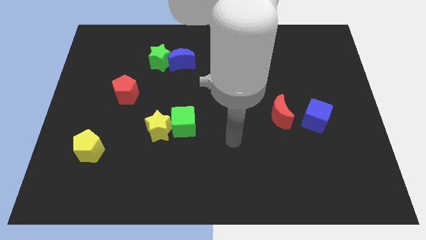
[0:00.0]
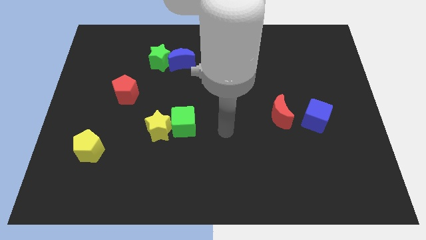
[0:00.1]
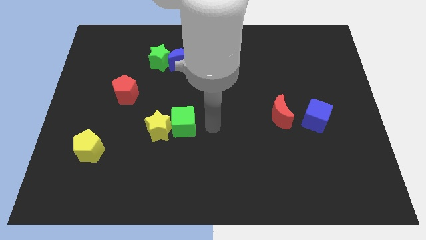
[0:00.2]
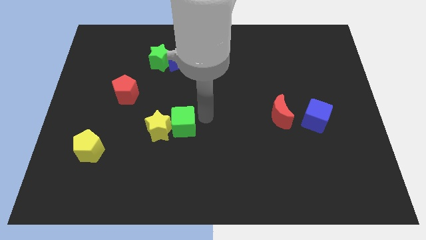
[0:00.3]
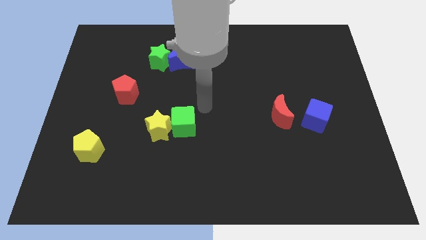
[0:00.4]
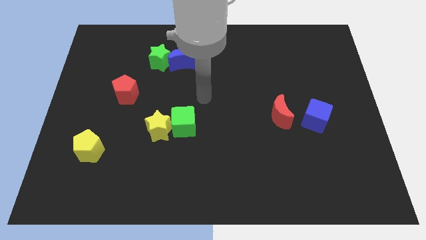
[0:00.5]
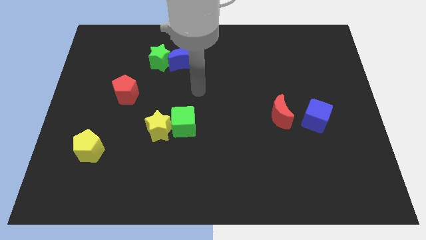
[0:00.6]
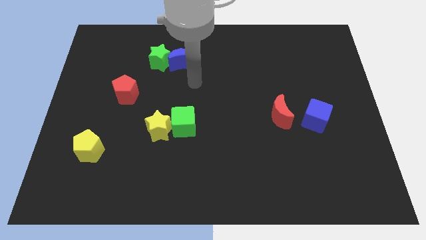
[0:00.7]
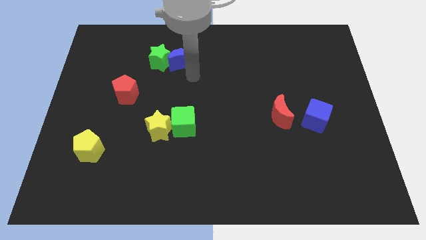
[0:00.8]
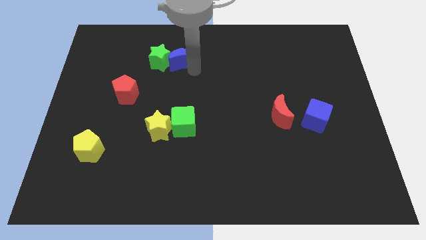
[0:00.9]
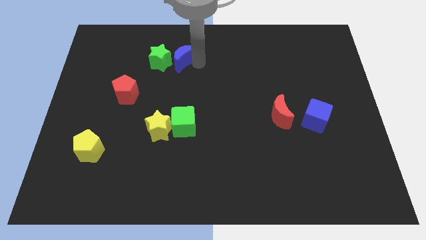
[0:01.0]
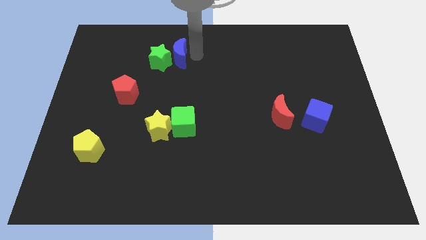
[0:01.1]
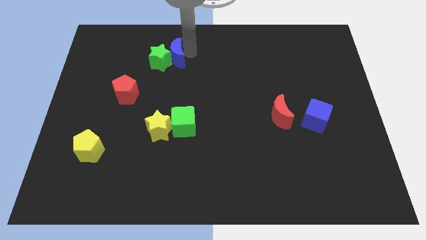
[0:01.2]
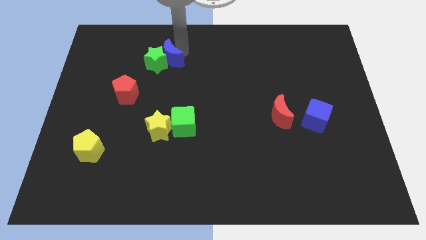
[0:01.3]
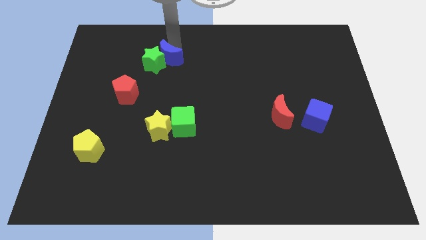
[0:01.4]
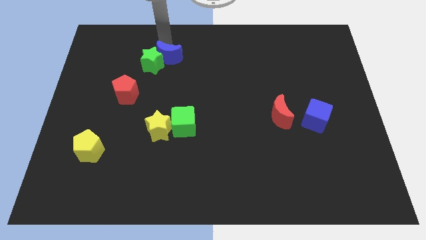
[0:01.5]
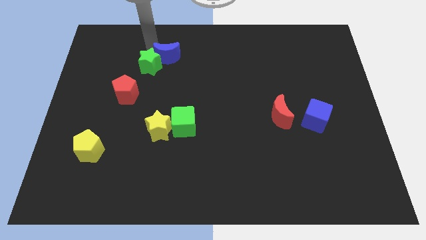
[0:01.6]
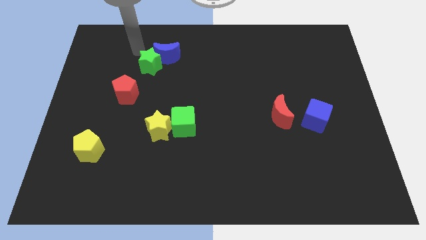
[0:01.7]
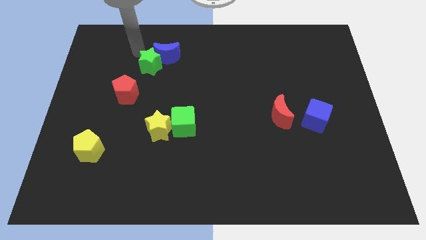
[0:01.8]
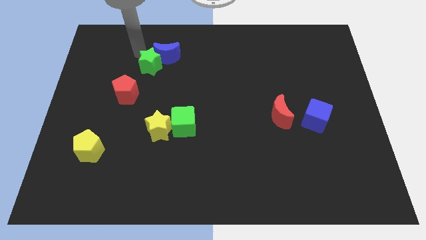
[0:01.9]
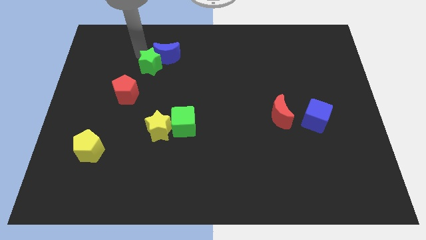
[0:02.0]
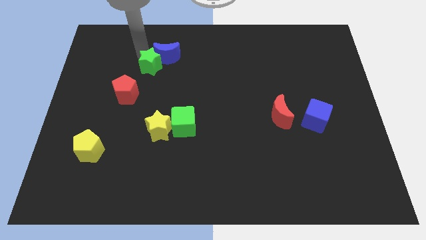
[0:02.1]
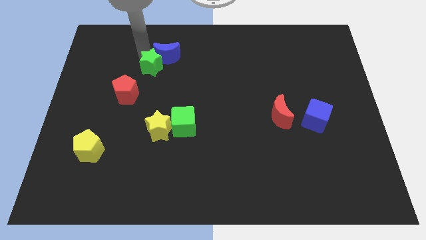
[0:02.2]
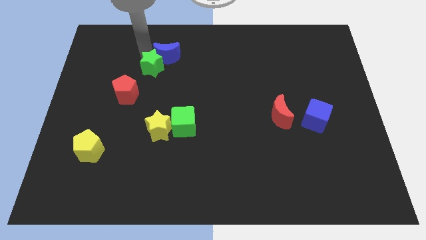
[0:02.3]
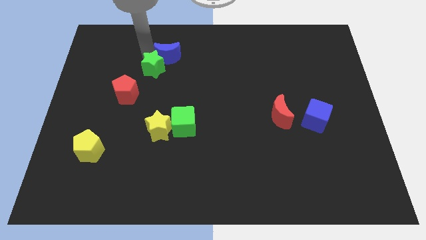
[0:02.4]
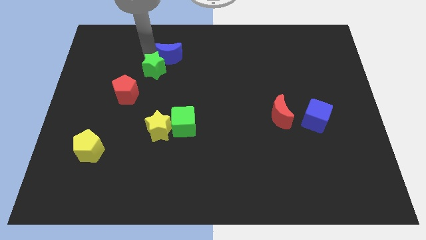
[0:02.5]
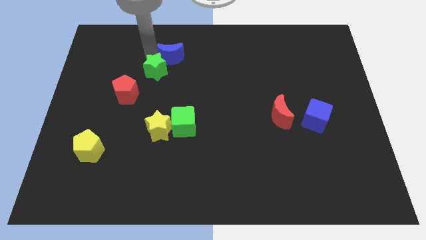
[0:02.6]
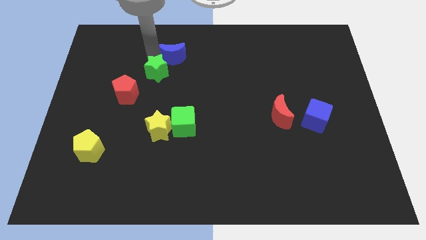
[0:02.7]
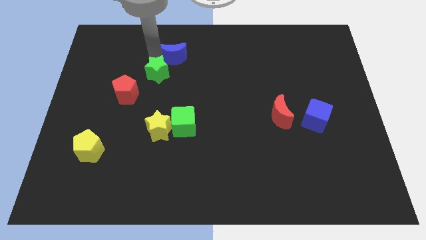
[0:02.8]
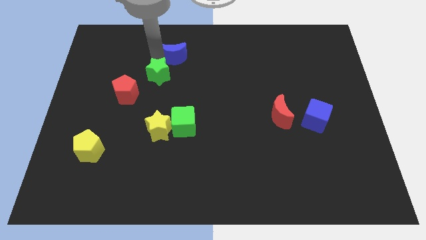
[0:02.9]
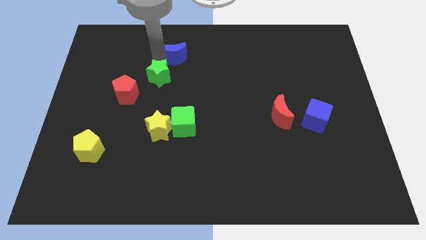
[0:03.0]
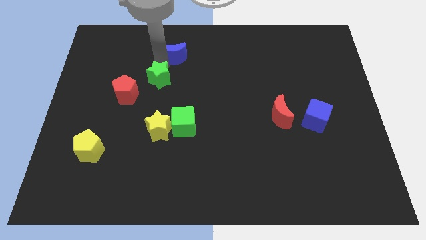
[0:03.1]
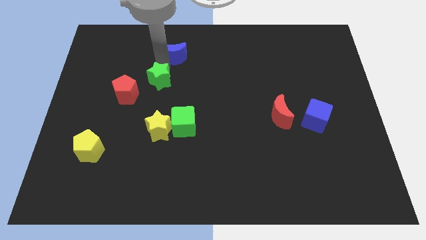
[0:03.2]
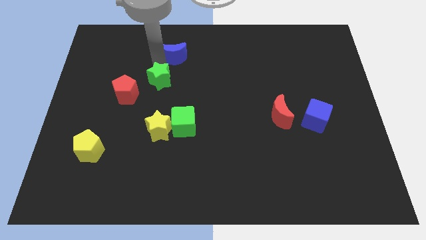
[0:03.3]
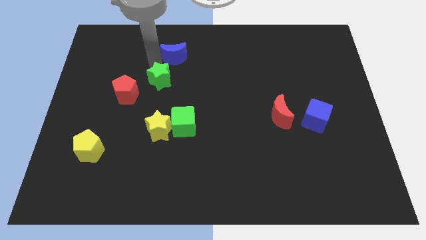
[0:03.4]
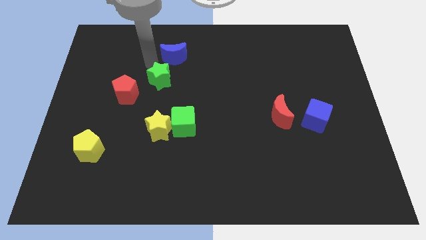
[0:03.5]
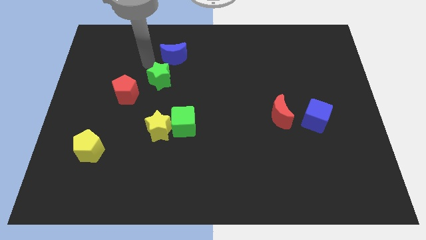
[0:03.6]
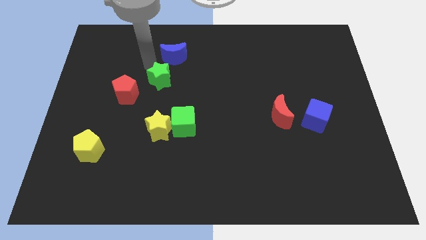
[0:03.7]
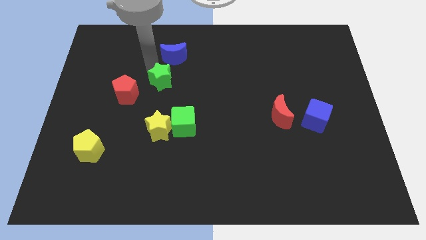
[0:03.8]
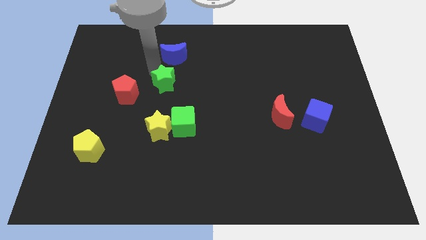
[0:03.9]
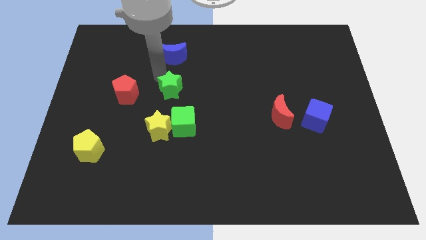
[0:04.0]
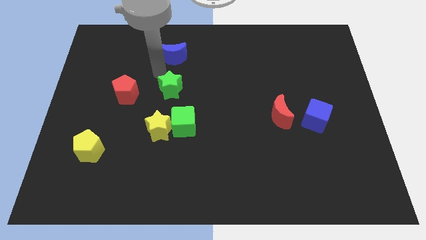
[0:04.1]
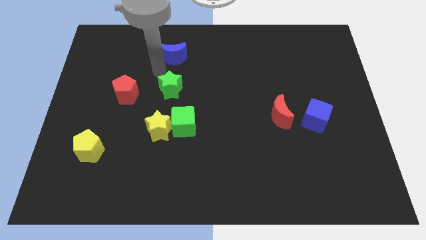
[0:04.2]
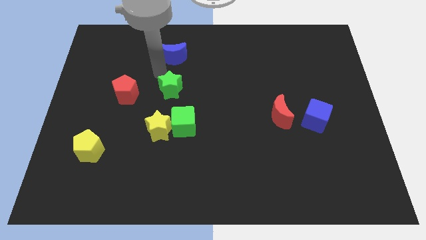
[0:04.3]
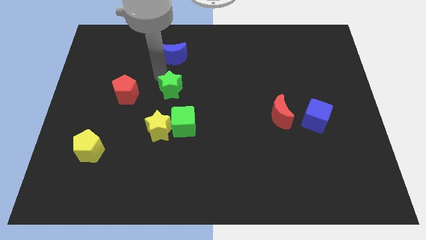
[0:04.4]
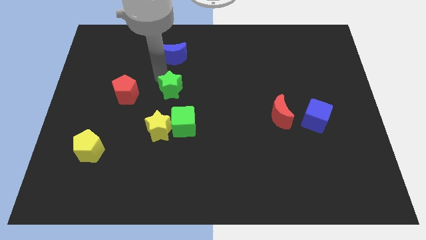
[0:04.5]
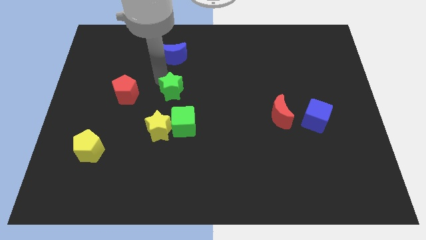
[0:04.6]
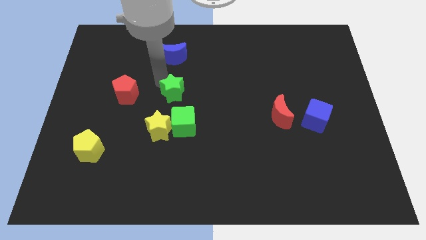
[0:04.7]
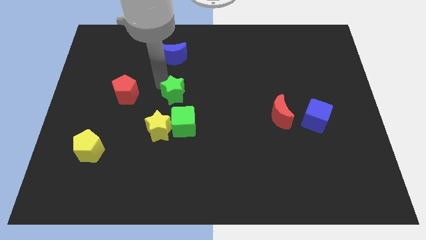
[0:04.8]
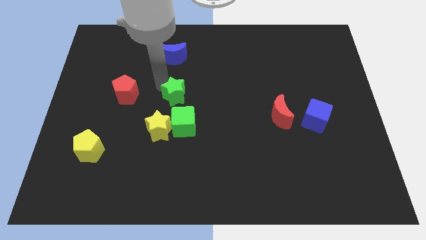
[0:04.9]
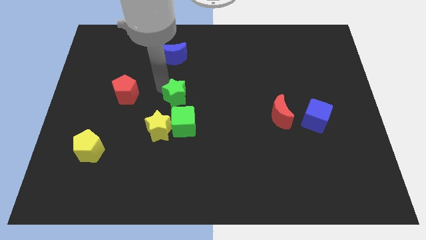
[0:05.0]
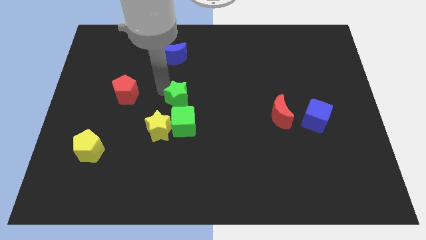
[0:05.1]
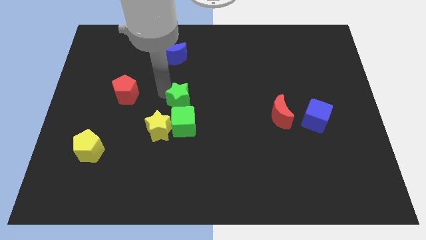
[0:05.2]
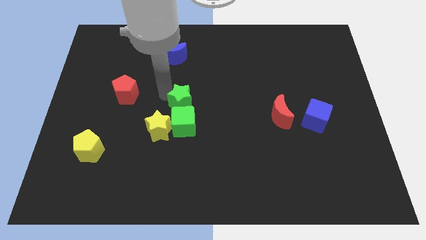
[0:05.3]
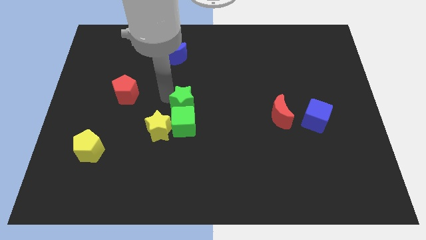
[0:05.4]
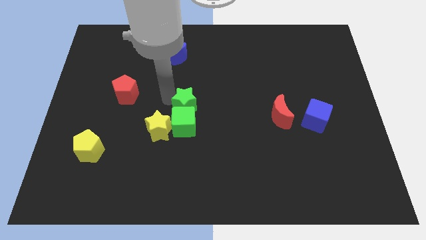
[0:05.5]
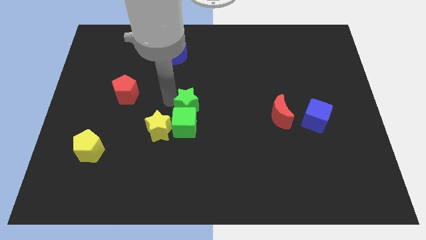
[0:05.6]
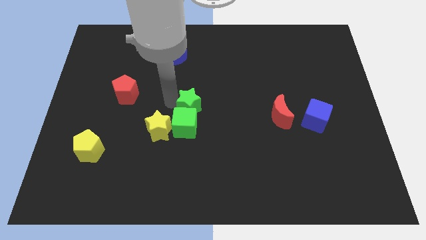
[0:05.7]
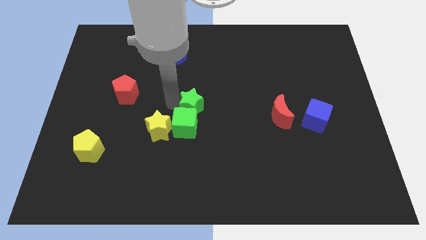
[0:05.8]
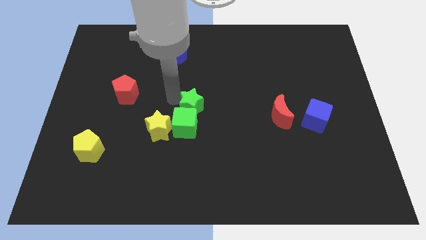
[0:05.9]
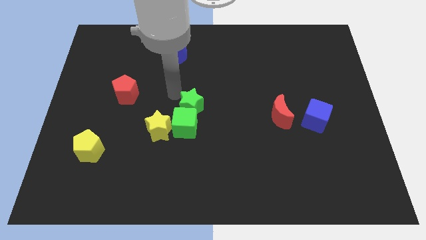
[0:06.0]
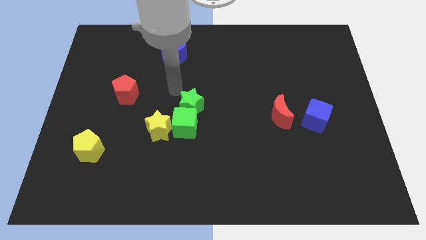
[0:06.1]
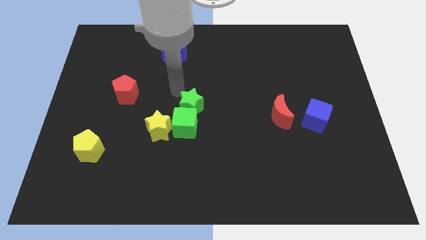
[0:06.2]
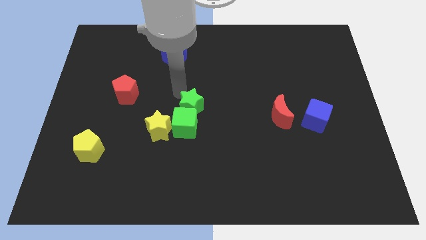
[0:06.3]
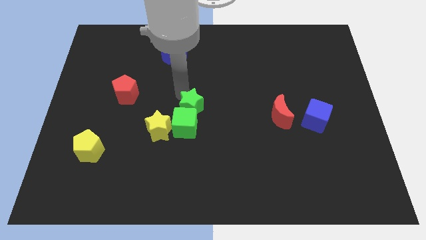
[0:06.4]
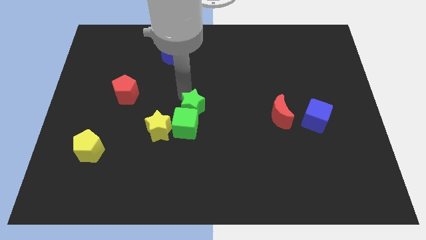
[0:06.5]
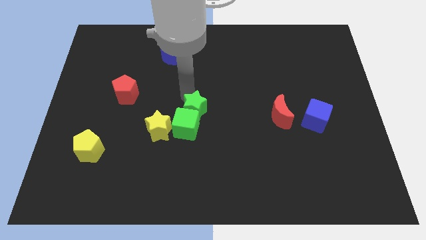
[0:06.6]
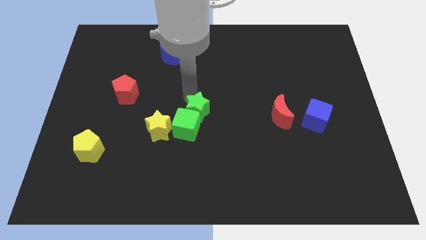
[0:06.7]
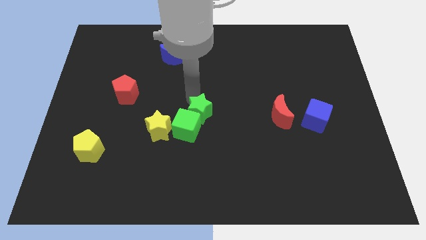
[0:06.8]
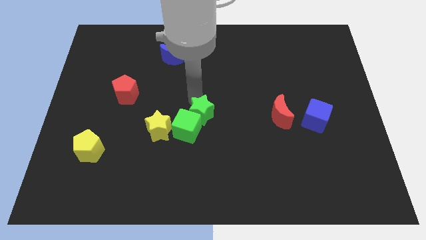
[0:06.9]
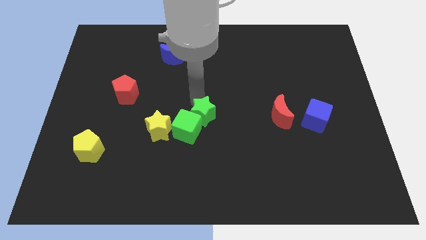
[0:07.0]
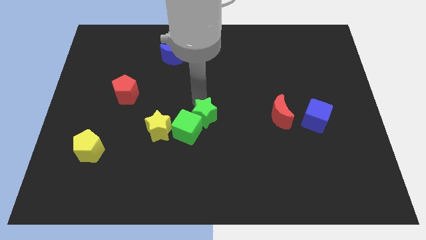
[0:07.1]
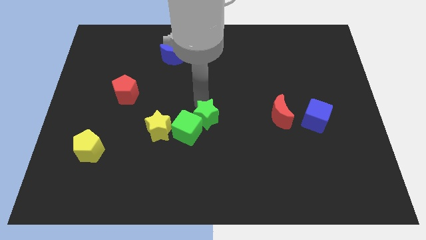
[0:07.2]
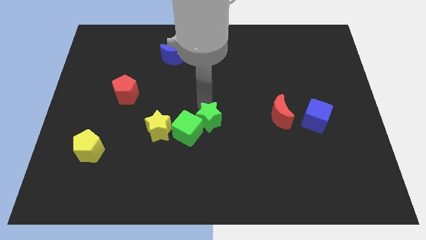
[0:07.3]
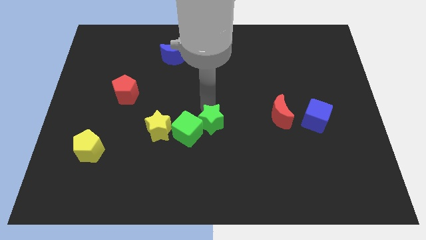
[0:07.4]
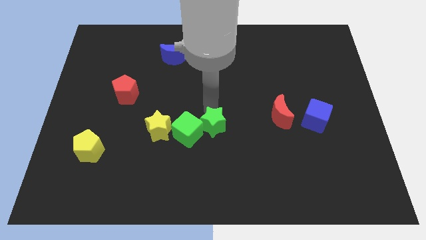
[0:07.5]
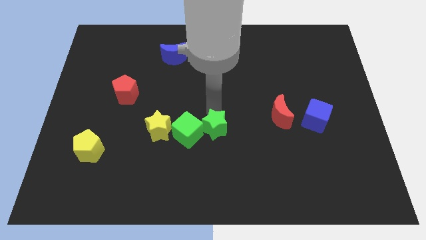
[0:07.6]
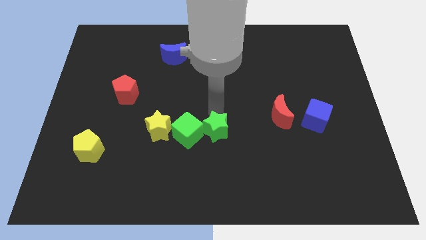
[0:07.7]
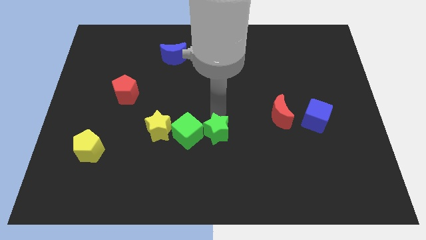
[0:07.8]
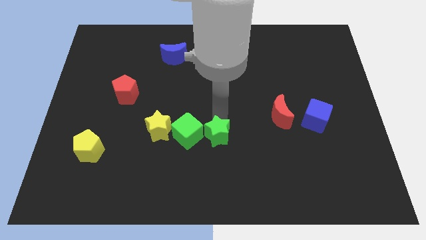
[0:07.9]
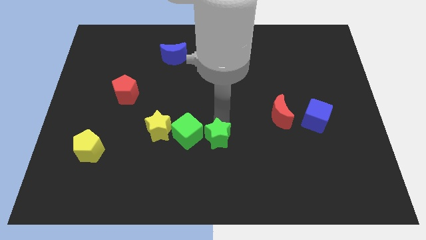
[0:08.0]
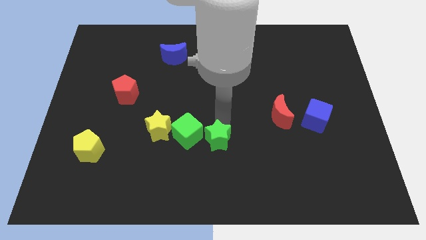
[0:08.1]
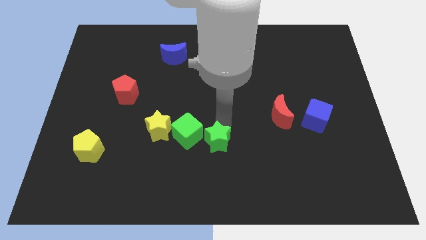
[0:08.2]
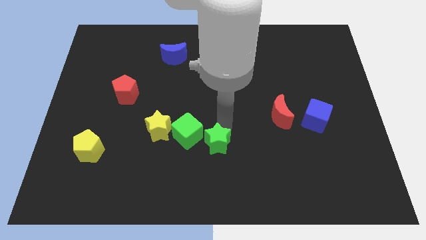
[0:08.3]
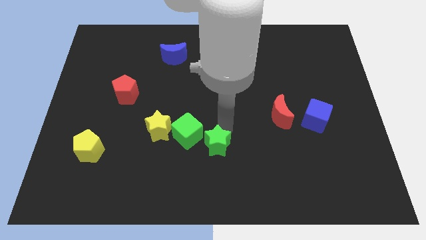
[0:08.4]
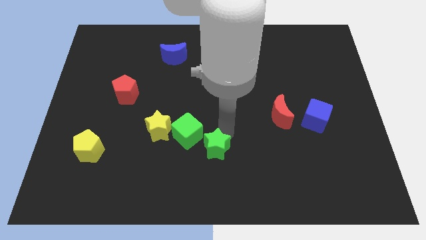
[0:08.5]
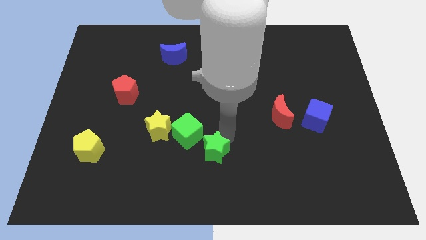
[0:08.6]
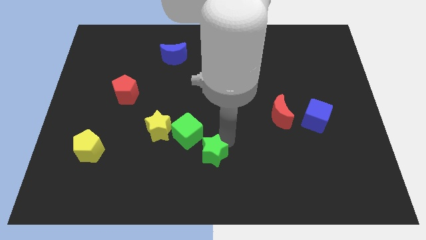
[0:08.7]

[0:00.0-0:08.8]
push the green star to the bottom
